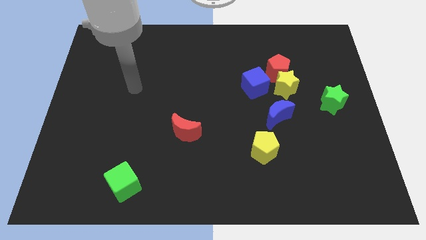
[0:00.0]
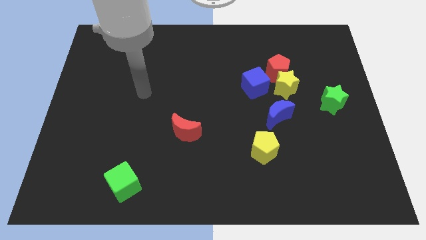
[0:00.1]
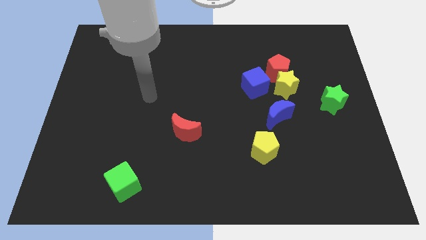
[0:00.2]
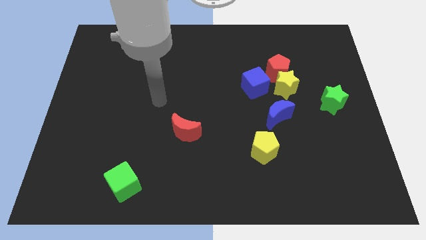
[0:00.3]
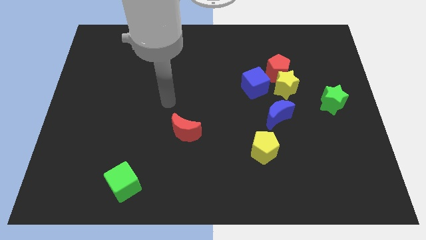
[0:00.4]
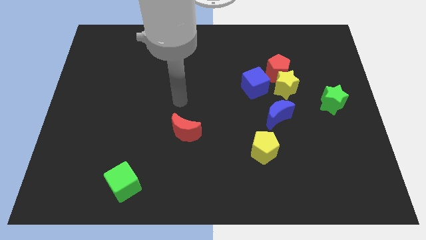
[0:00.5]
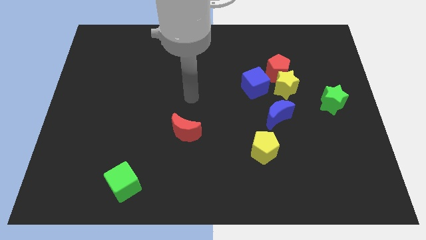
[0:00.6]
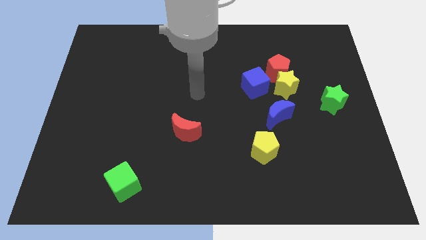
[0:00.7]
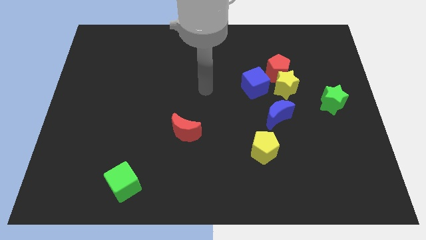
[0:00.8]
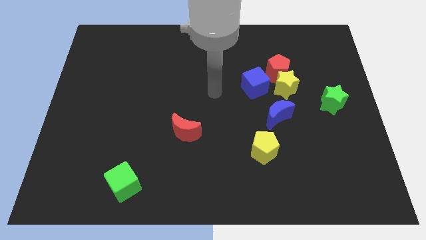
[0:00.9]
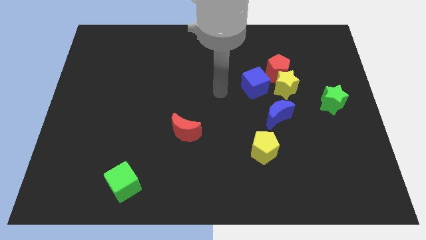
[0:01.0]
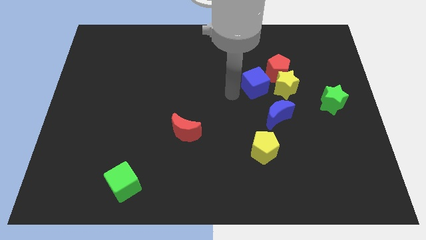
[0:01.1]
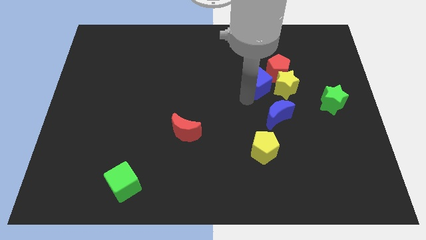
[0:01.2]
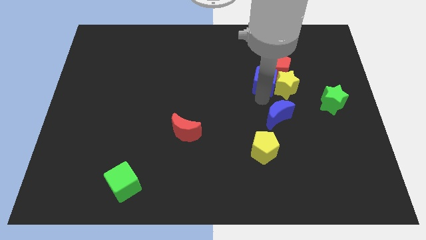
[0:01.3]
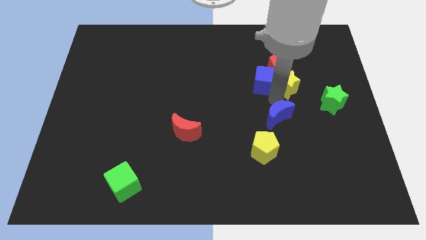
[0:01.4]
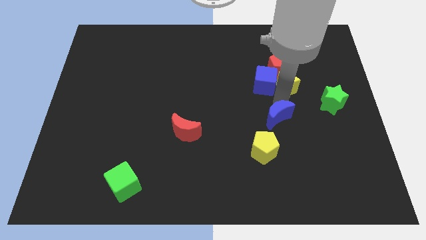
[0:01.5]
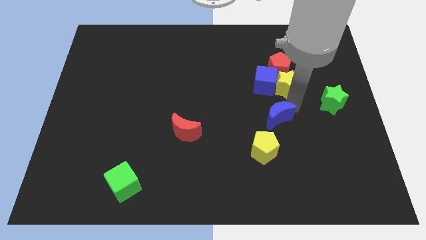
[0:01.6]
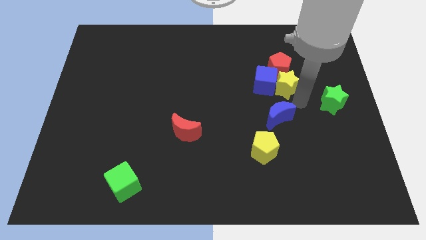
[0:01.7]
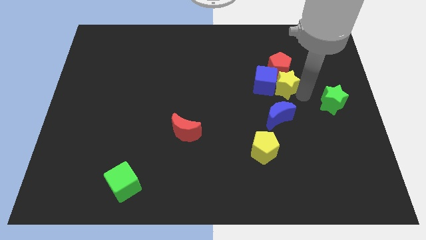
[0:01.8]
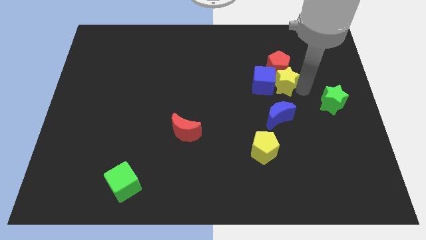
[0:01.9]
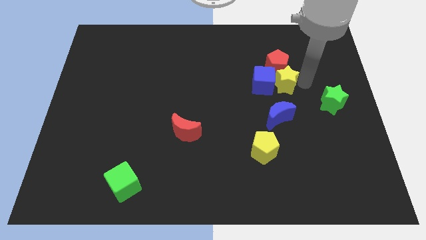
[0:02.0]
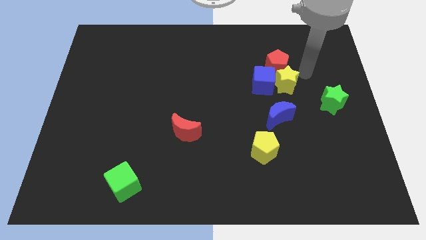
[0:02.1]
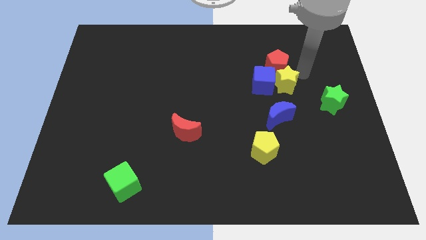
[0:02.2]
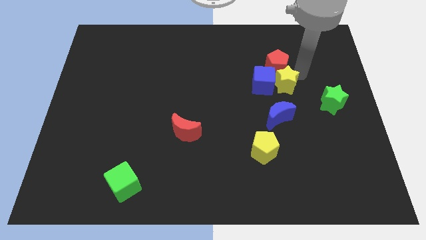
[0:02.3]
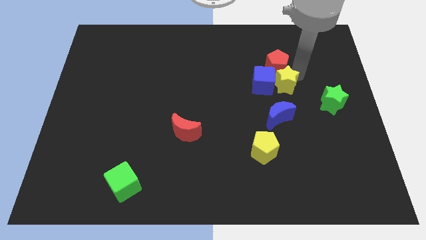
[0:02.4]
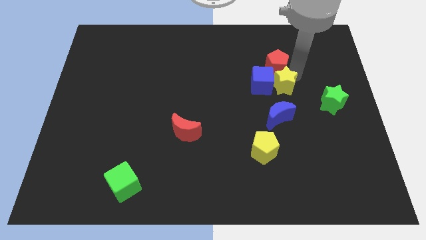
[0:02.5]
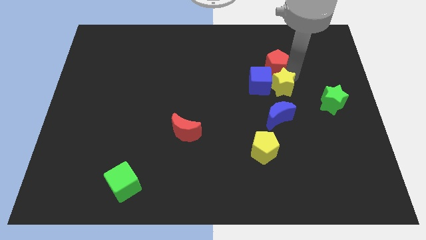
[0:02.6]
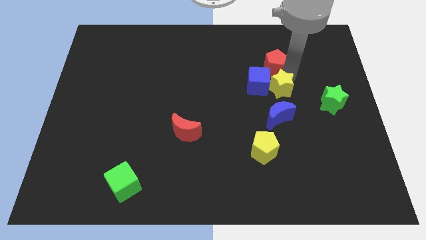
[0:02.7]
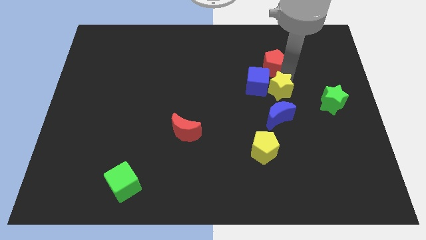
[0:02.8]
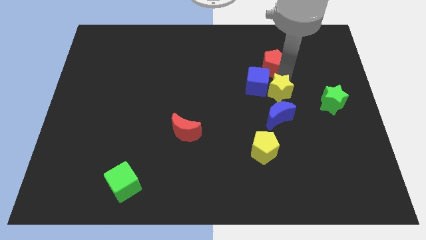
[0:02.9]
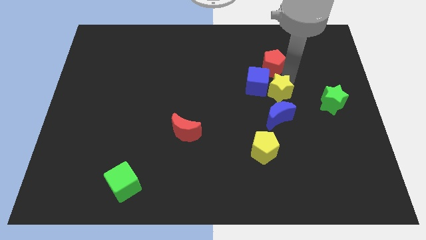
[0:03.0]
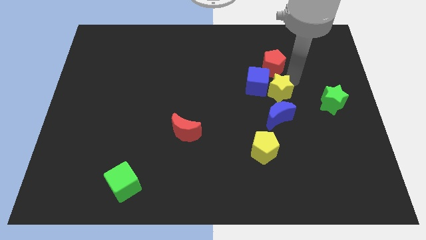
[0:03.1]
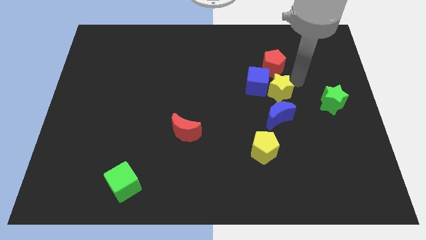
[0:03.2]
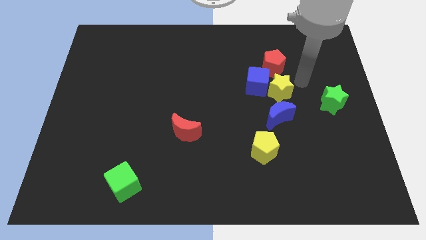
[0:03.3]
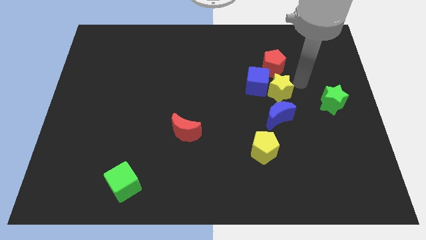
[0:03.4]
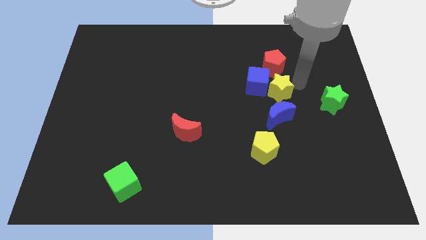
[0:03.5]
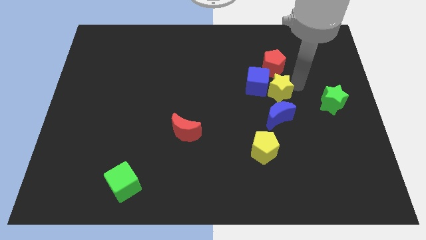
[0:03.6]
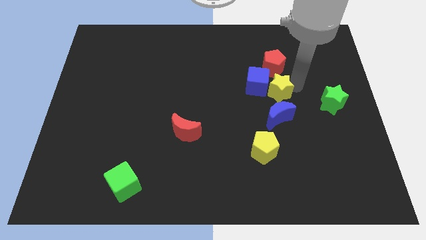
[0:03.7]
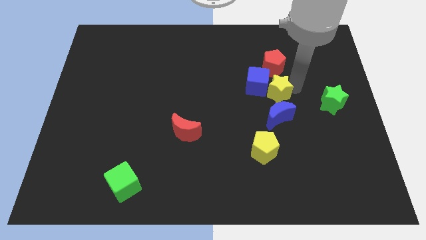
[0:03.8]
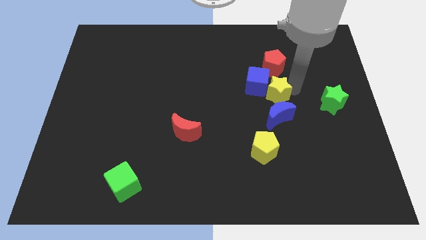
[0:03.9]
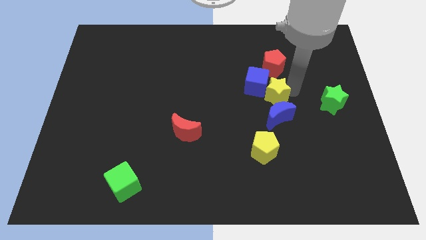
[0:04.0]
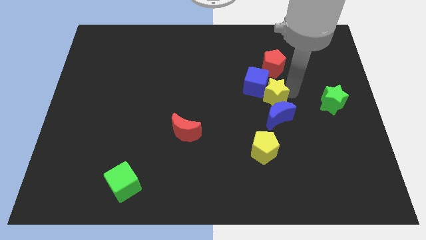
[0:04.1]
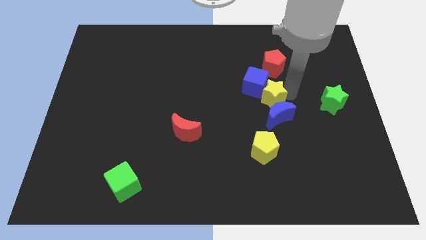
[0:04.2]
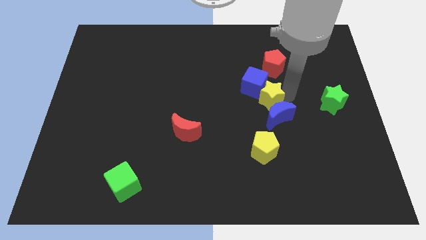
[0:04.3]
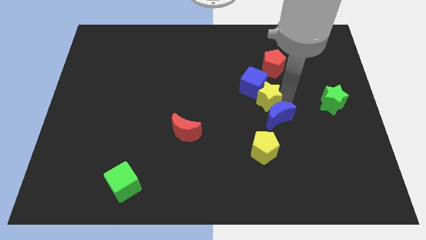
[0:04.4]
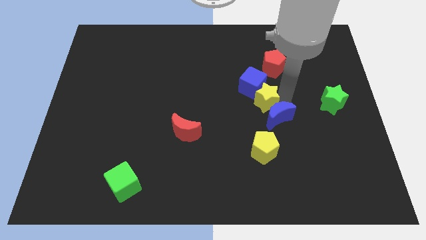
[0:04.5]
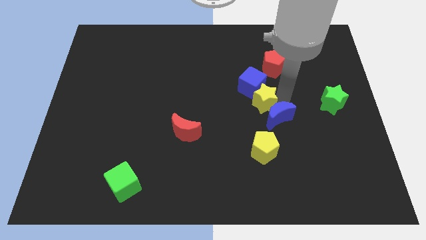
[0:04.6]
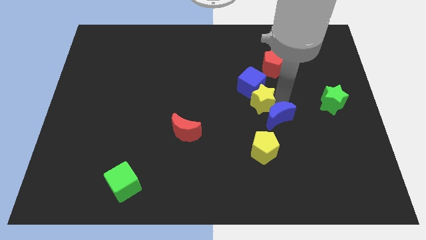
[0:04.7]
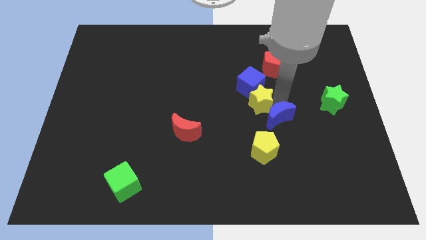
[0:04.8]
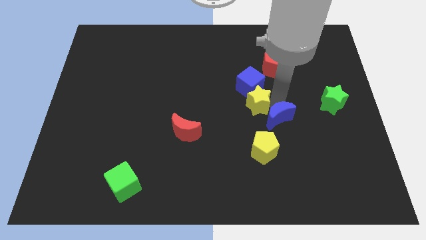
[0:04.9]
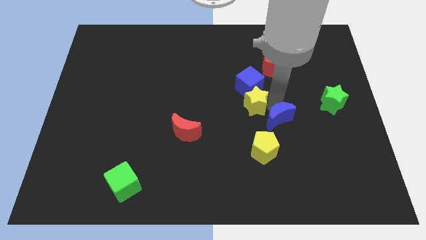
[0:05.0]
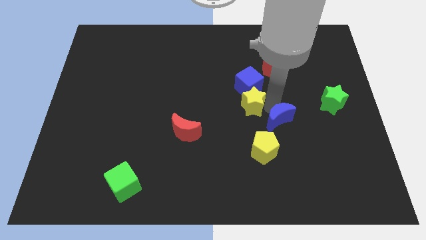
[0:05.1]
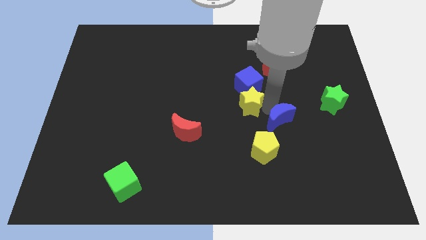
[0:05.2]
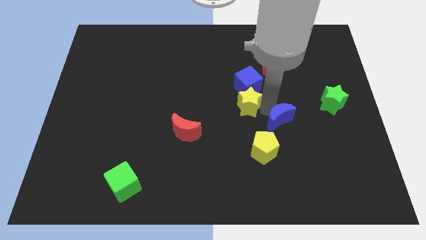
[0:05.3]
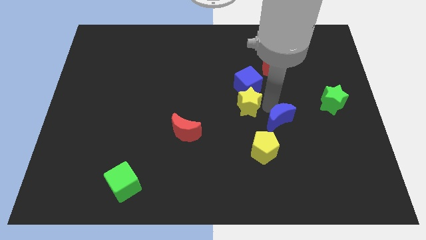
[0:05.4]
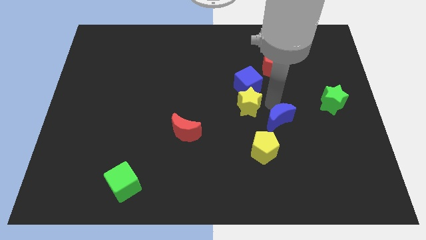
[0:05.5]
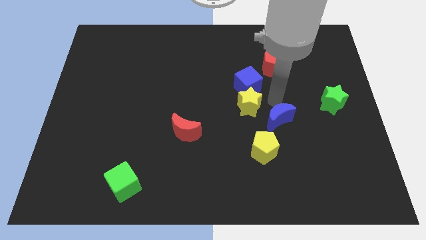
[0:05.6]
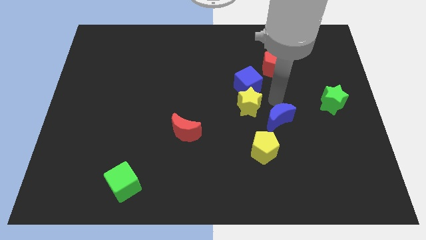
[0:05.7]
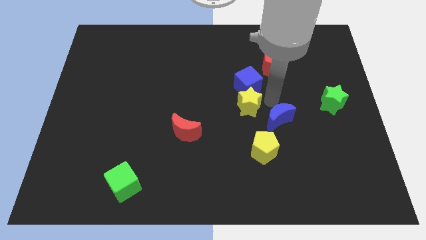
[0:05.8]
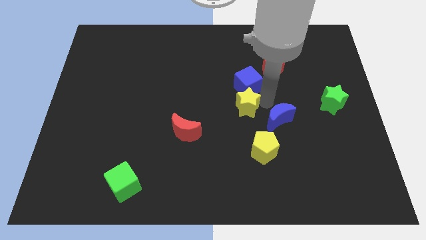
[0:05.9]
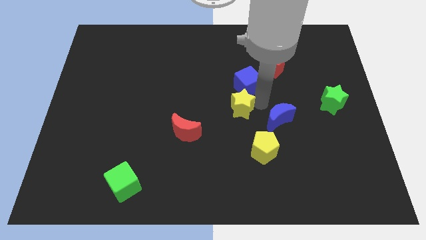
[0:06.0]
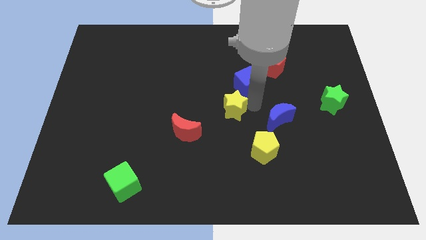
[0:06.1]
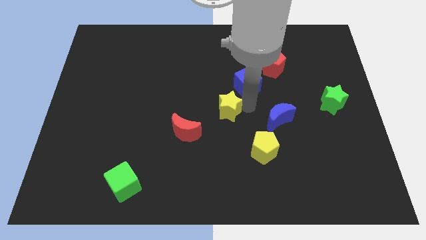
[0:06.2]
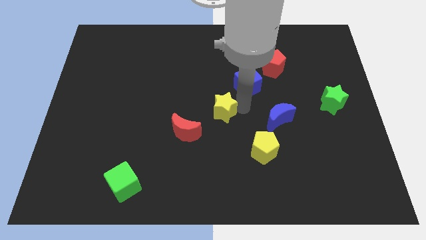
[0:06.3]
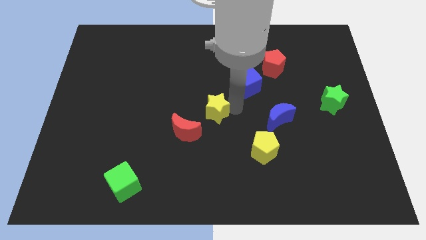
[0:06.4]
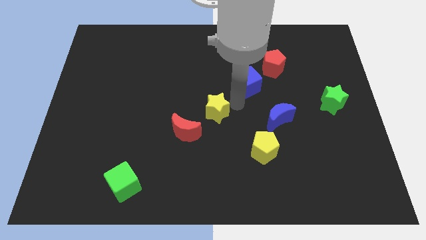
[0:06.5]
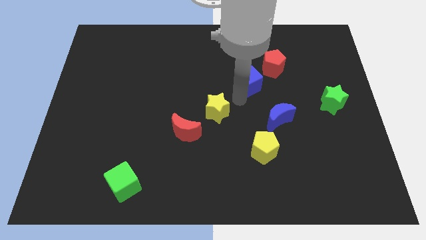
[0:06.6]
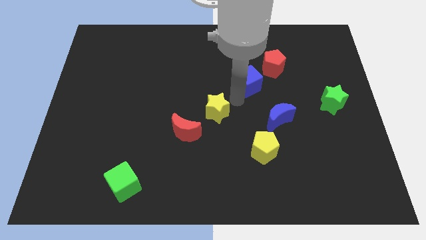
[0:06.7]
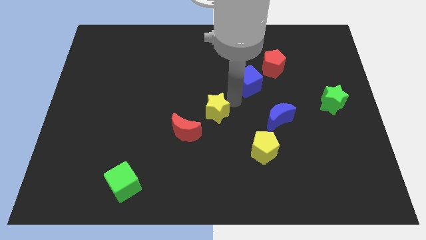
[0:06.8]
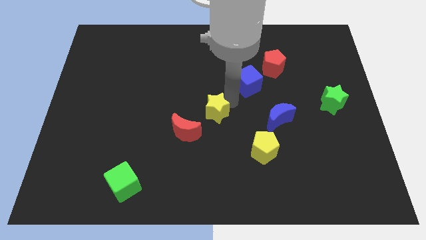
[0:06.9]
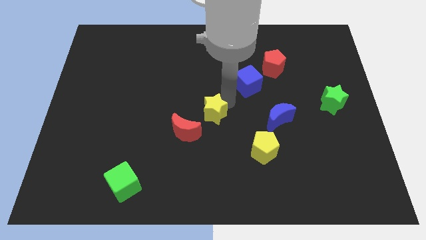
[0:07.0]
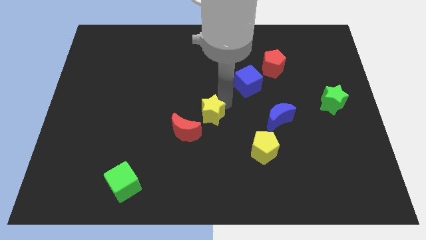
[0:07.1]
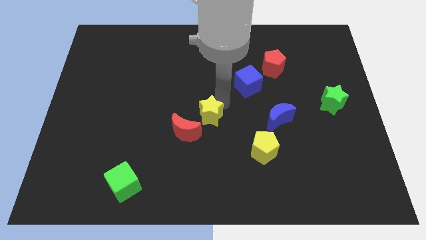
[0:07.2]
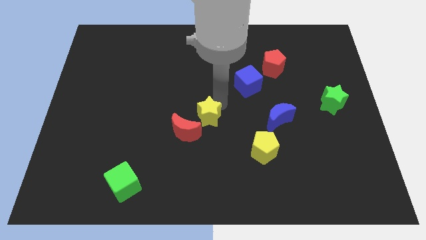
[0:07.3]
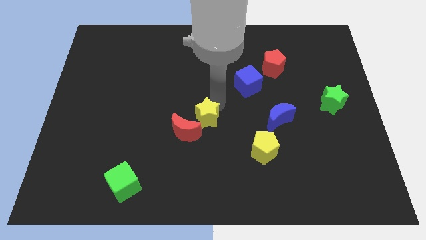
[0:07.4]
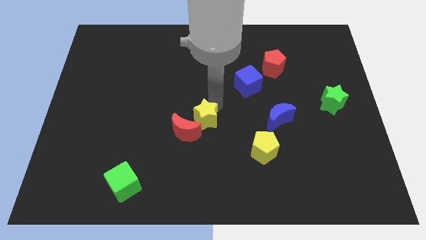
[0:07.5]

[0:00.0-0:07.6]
push the yellow star close to the red moon
